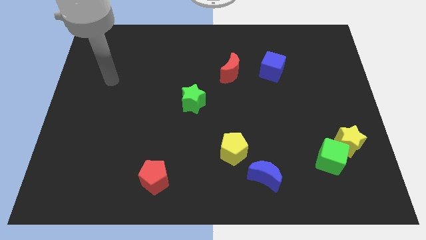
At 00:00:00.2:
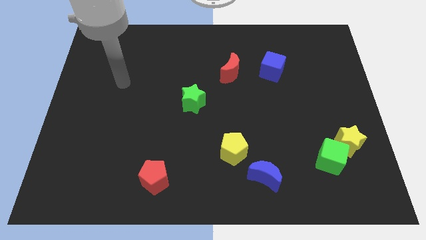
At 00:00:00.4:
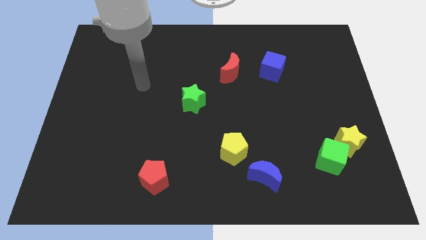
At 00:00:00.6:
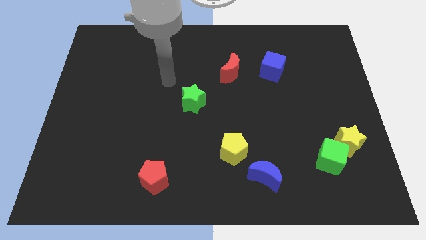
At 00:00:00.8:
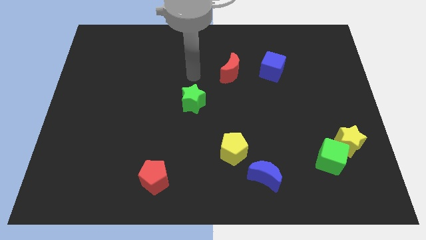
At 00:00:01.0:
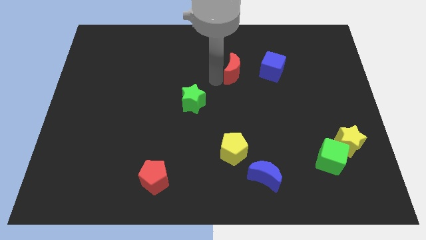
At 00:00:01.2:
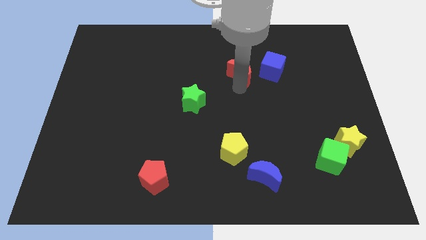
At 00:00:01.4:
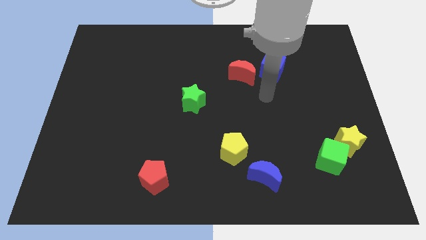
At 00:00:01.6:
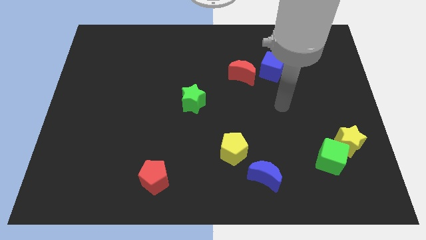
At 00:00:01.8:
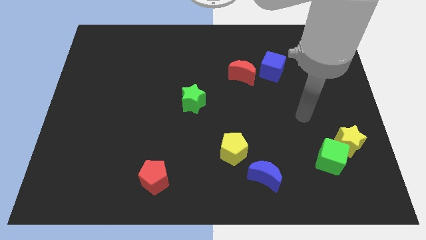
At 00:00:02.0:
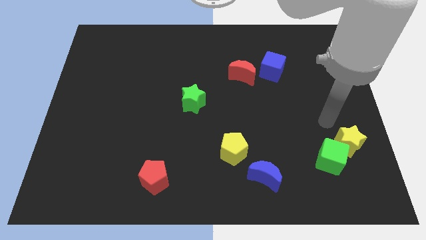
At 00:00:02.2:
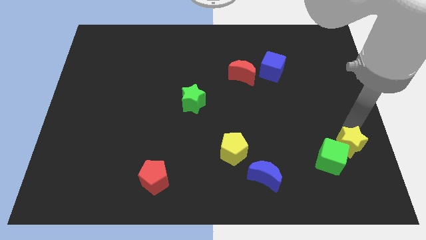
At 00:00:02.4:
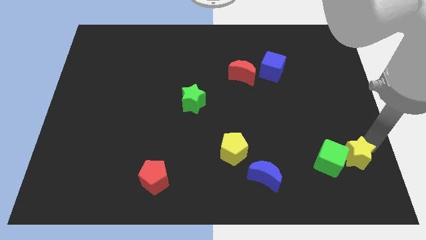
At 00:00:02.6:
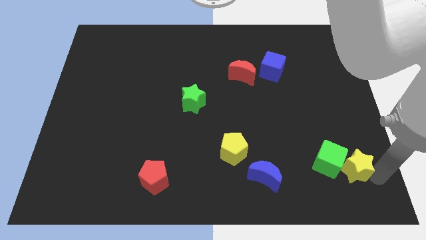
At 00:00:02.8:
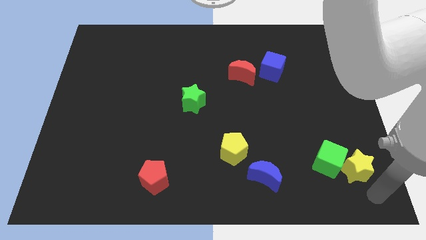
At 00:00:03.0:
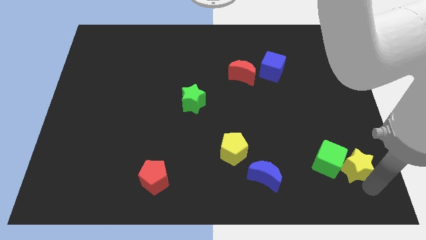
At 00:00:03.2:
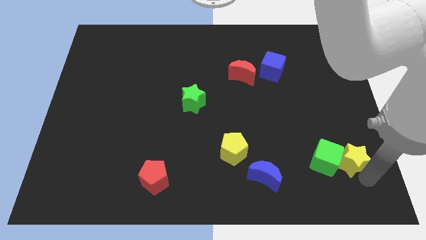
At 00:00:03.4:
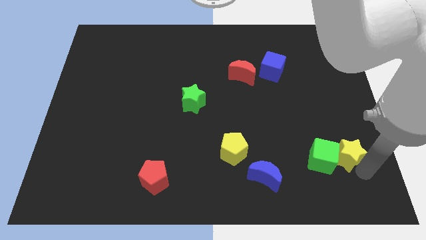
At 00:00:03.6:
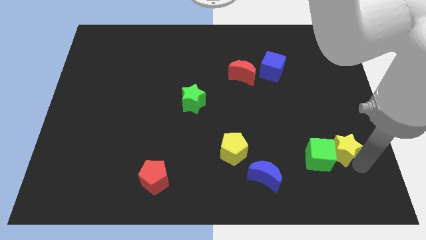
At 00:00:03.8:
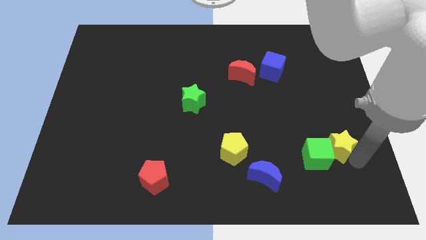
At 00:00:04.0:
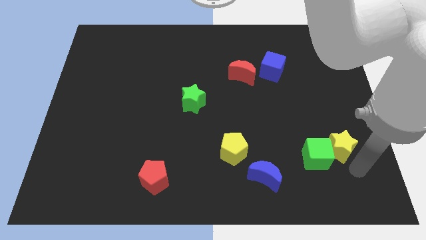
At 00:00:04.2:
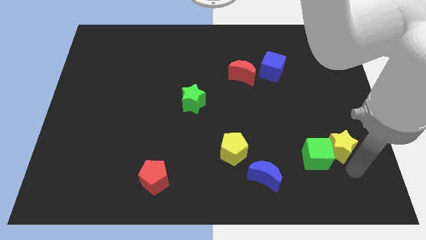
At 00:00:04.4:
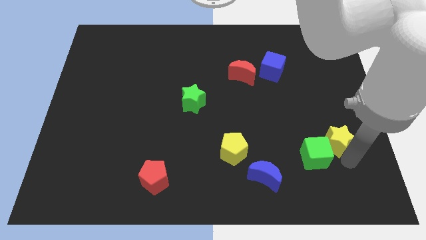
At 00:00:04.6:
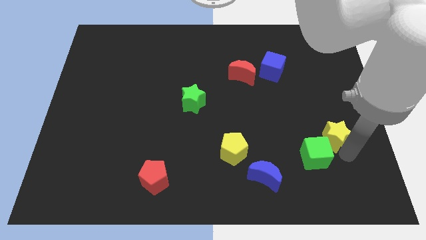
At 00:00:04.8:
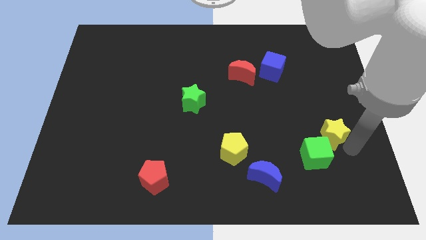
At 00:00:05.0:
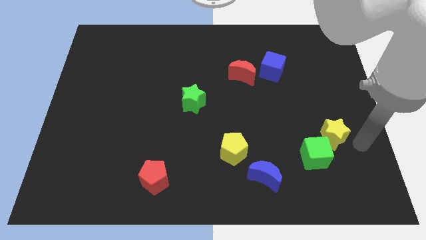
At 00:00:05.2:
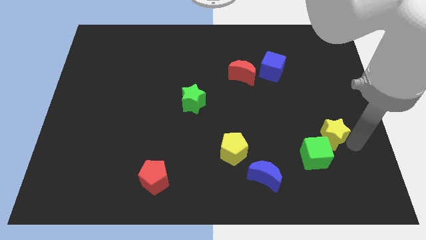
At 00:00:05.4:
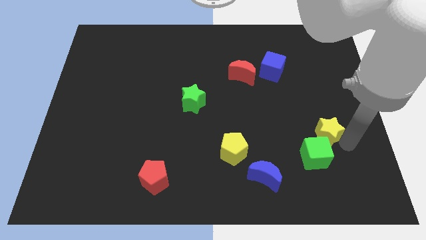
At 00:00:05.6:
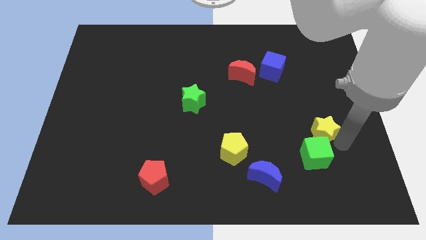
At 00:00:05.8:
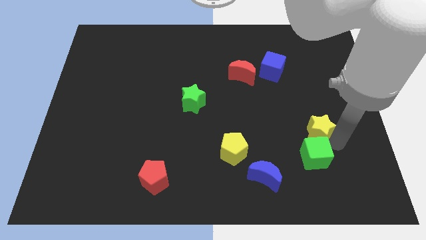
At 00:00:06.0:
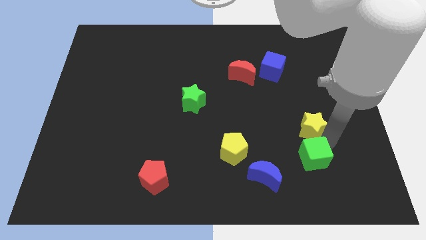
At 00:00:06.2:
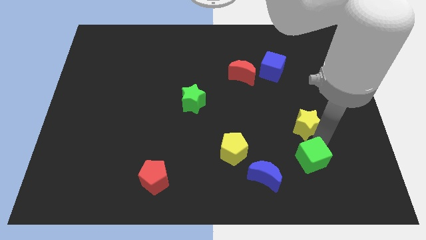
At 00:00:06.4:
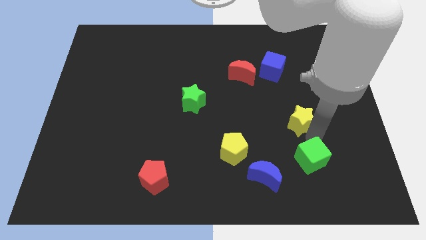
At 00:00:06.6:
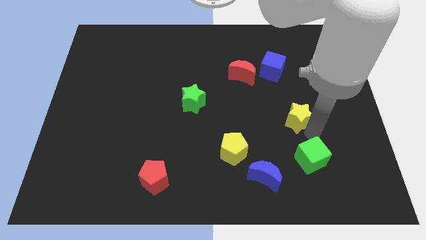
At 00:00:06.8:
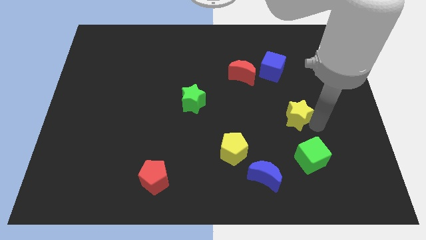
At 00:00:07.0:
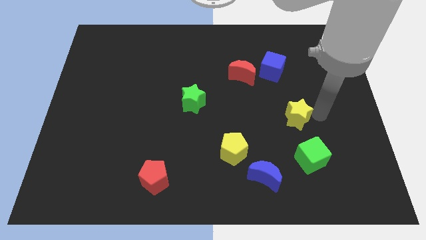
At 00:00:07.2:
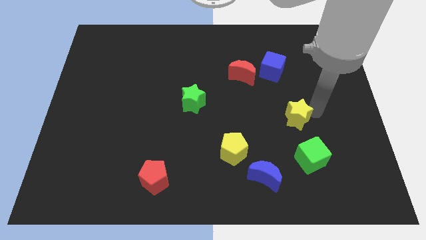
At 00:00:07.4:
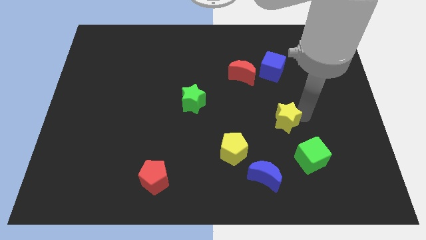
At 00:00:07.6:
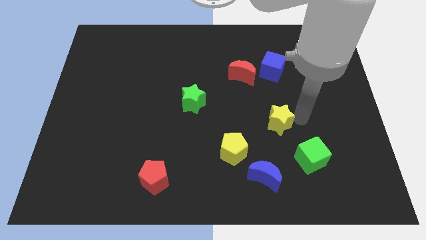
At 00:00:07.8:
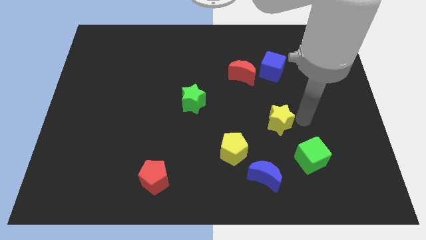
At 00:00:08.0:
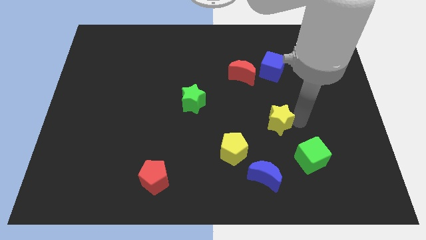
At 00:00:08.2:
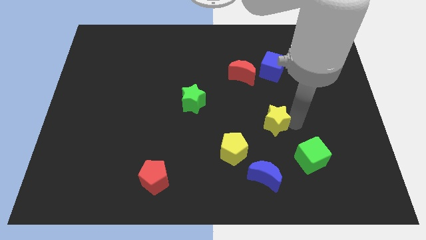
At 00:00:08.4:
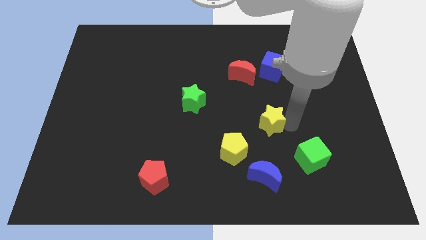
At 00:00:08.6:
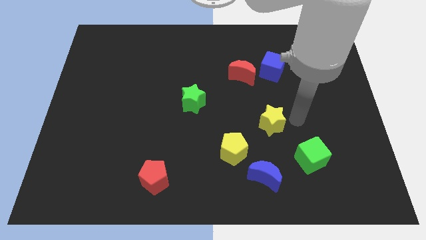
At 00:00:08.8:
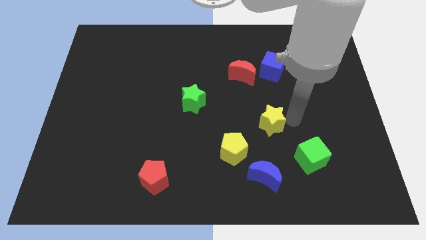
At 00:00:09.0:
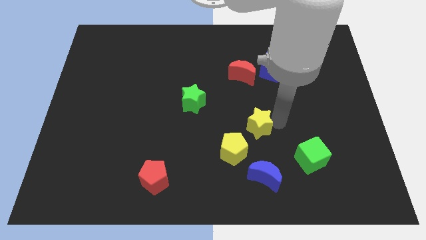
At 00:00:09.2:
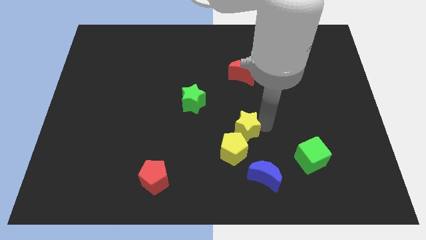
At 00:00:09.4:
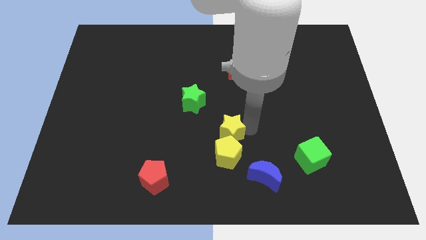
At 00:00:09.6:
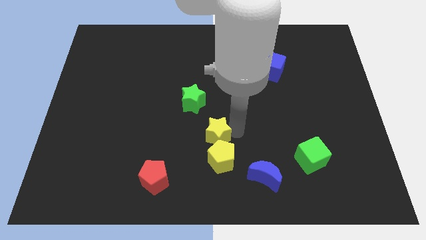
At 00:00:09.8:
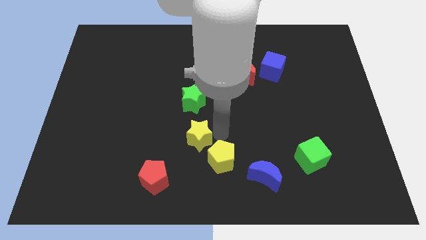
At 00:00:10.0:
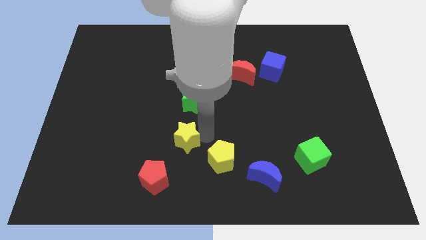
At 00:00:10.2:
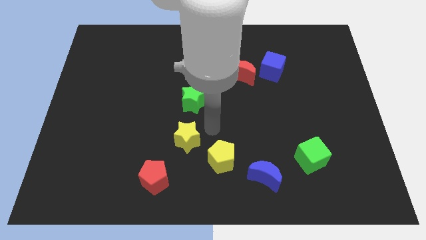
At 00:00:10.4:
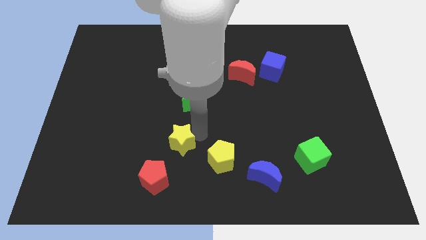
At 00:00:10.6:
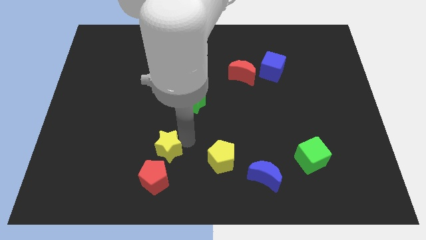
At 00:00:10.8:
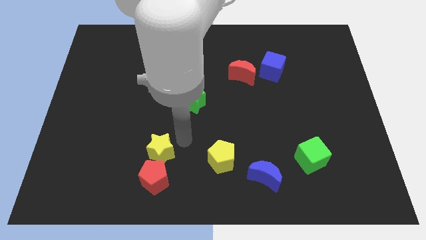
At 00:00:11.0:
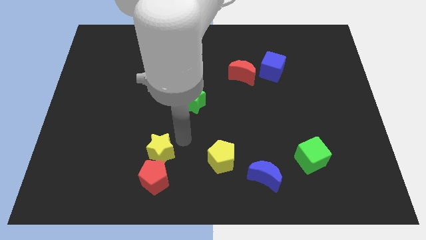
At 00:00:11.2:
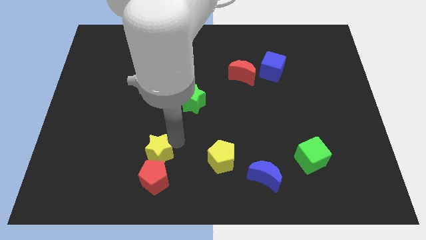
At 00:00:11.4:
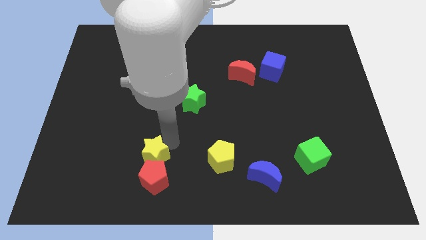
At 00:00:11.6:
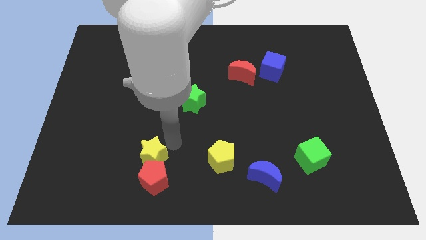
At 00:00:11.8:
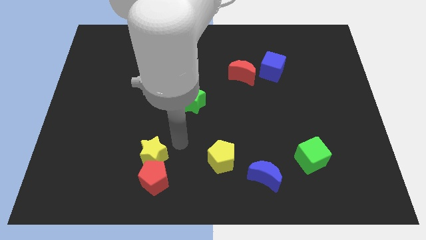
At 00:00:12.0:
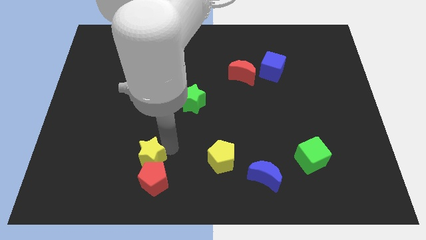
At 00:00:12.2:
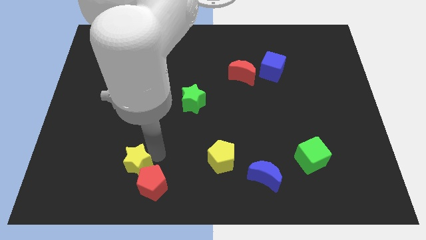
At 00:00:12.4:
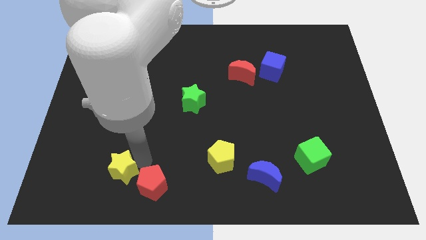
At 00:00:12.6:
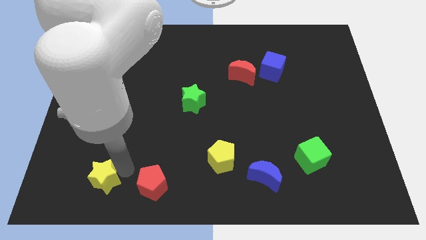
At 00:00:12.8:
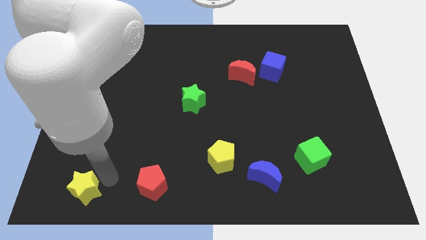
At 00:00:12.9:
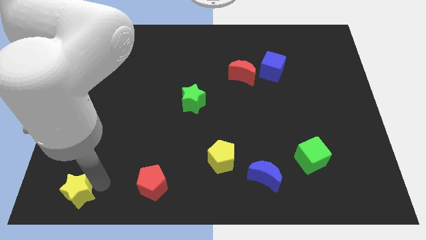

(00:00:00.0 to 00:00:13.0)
push the yellow star to the bottom left corner

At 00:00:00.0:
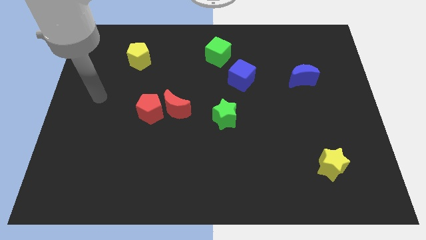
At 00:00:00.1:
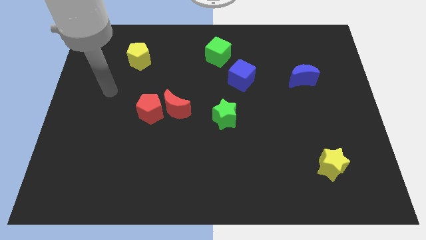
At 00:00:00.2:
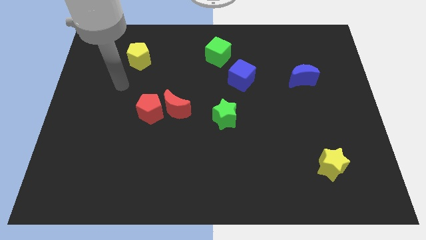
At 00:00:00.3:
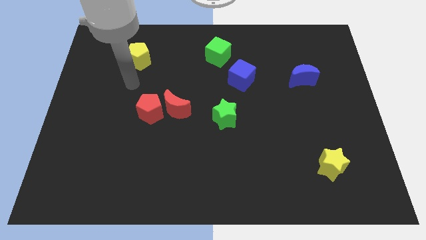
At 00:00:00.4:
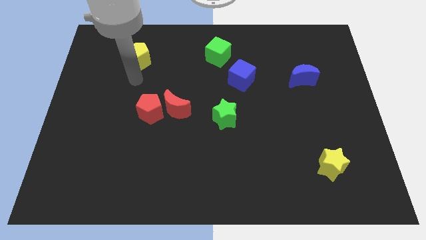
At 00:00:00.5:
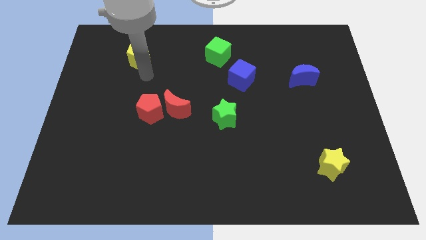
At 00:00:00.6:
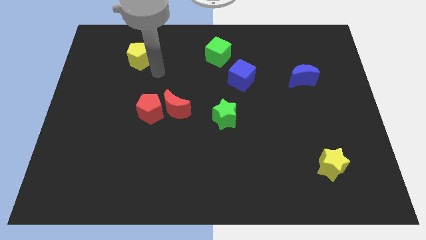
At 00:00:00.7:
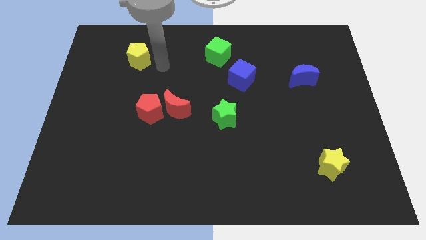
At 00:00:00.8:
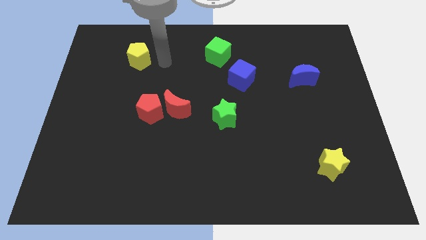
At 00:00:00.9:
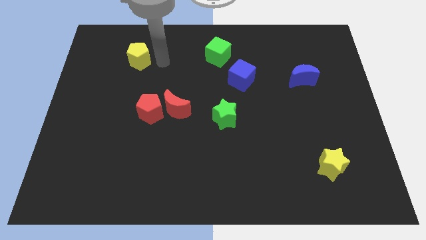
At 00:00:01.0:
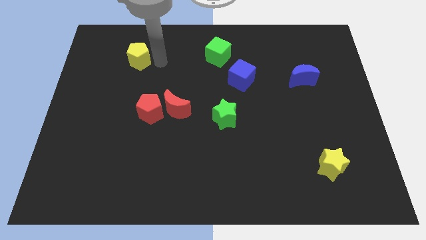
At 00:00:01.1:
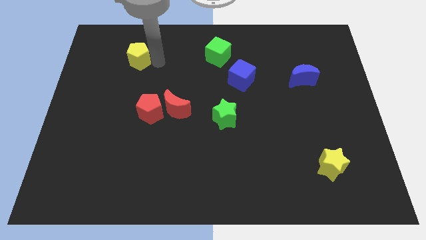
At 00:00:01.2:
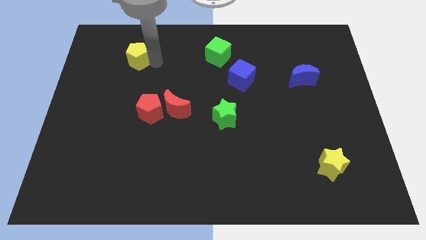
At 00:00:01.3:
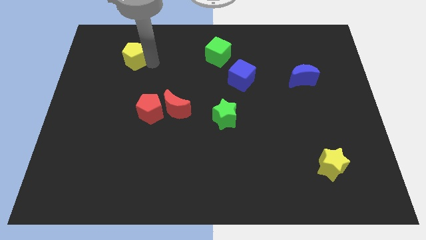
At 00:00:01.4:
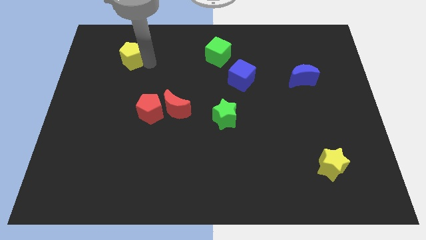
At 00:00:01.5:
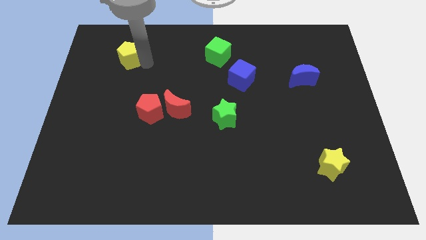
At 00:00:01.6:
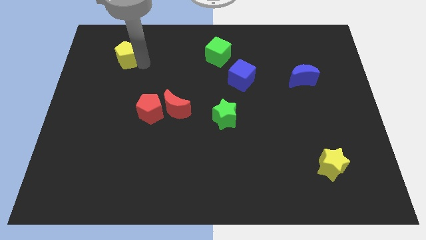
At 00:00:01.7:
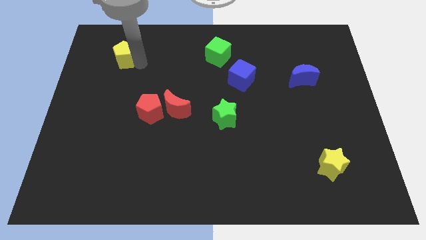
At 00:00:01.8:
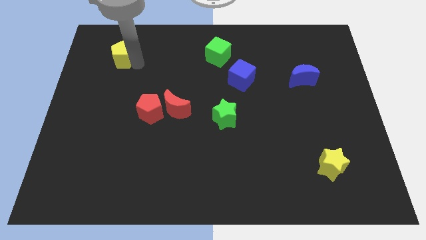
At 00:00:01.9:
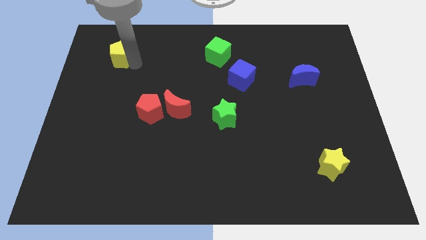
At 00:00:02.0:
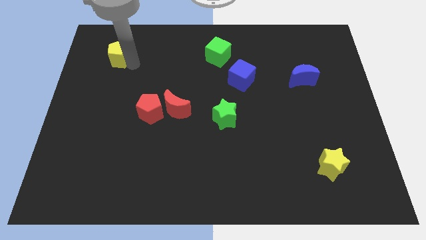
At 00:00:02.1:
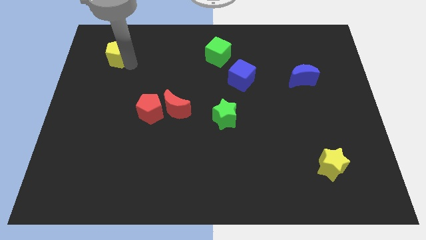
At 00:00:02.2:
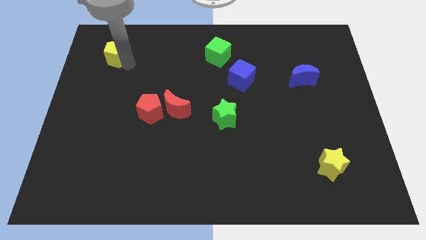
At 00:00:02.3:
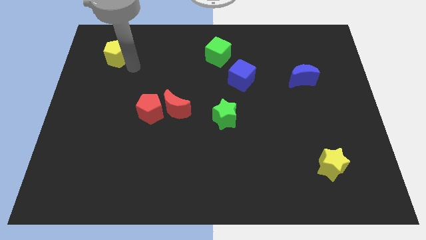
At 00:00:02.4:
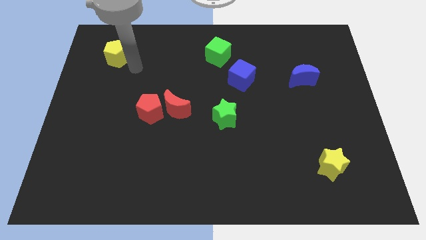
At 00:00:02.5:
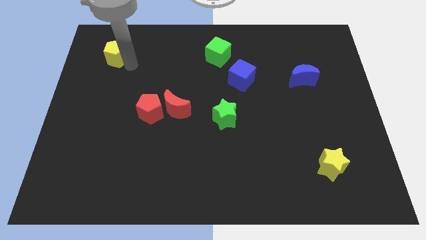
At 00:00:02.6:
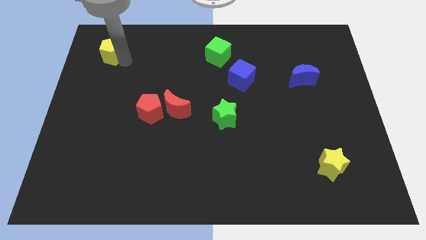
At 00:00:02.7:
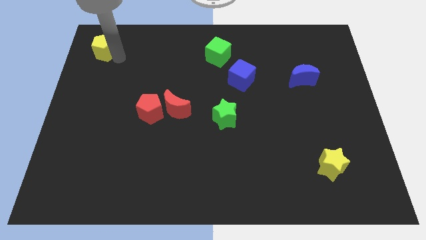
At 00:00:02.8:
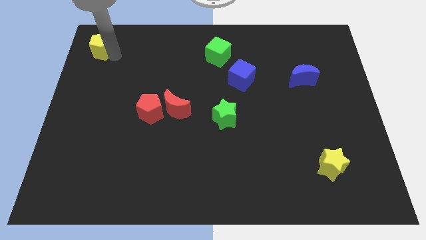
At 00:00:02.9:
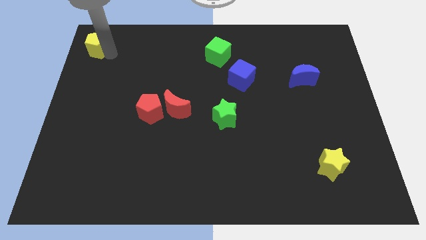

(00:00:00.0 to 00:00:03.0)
push the yellow pentagon to the upper left corner
